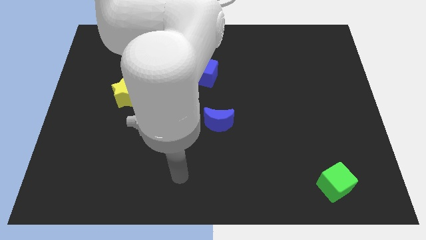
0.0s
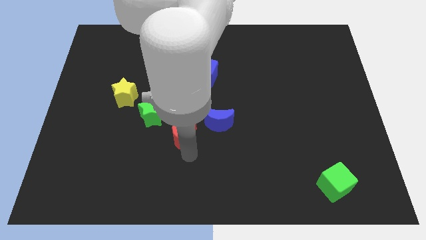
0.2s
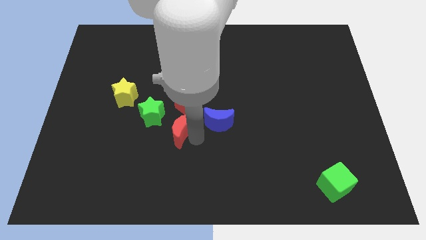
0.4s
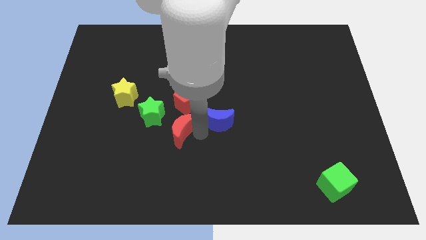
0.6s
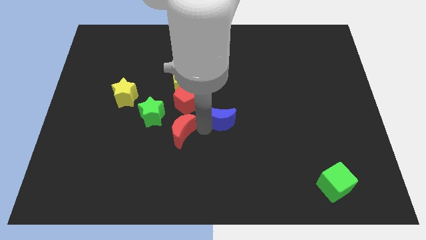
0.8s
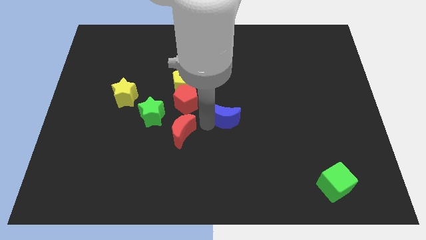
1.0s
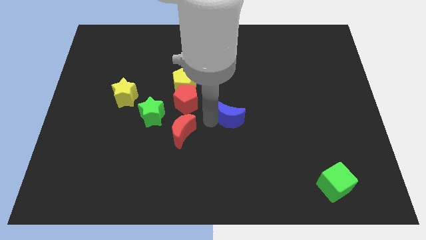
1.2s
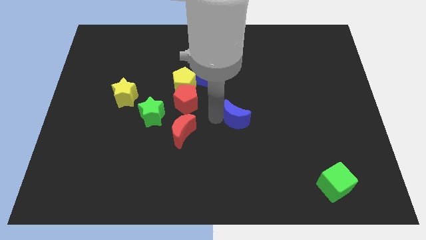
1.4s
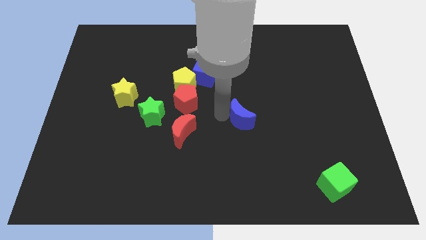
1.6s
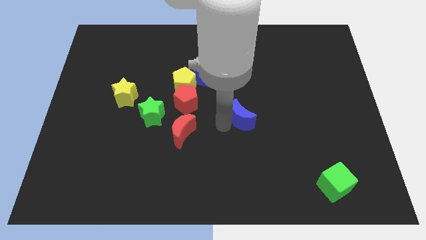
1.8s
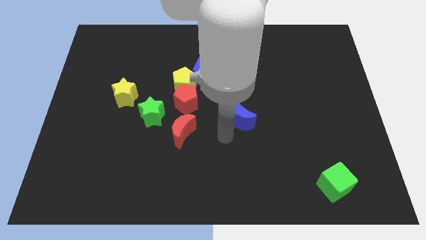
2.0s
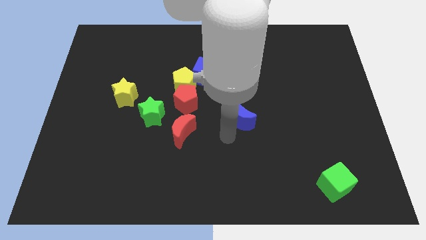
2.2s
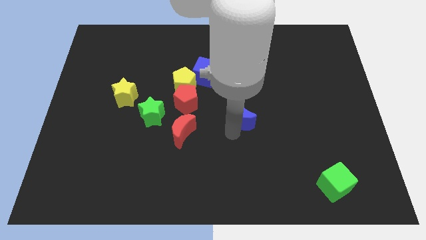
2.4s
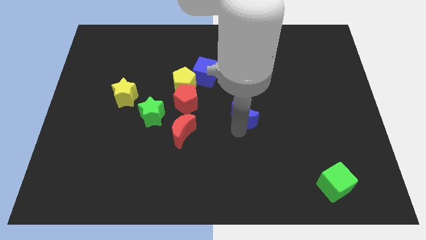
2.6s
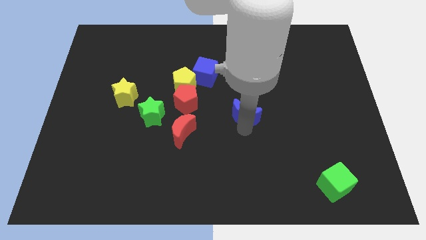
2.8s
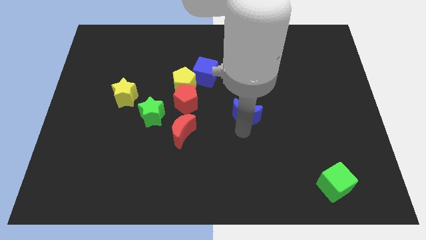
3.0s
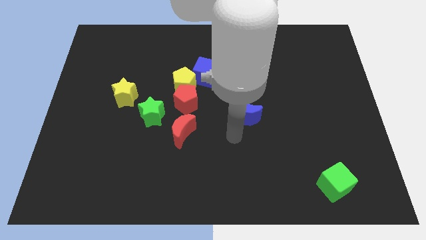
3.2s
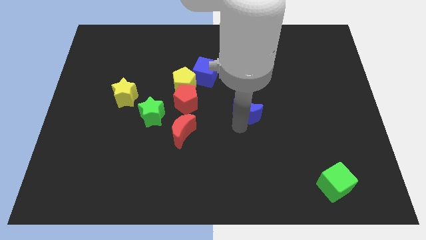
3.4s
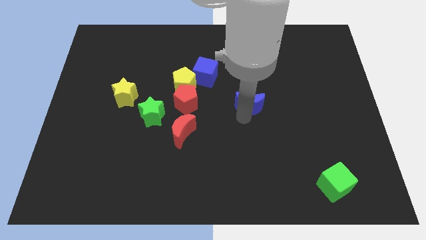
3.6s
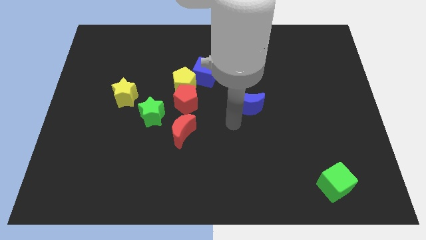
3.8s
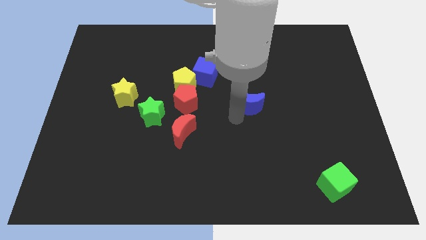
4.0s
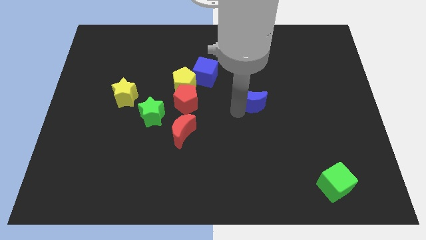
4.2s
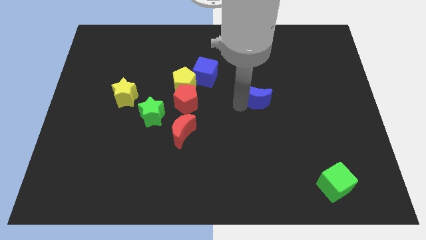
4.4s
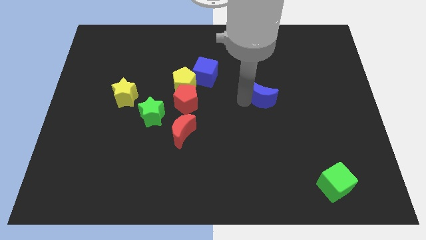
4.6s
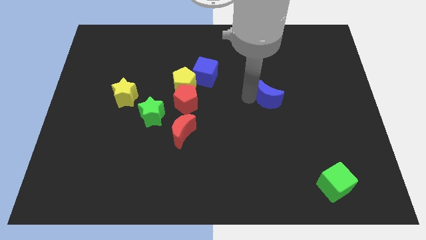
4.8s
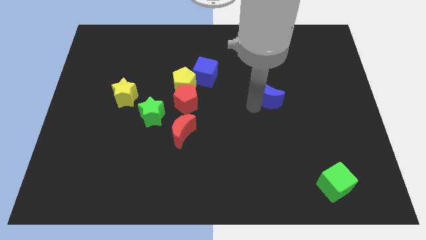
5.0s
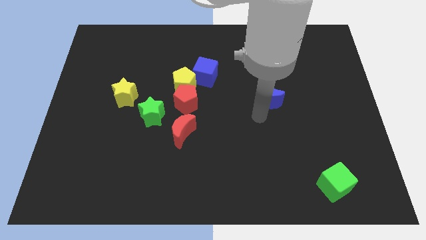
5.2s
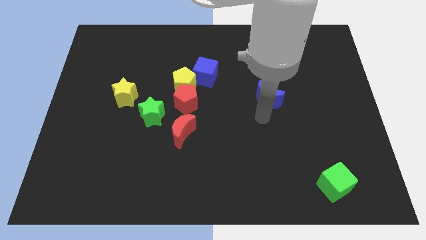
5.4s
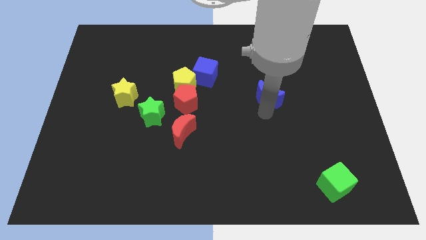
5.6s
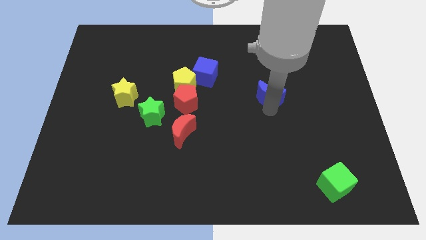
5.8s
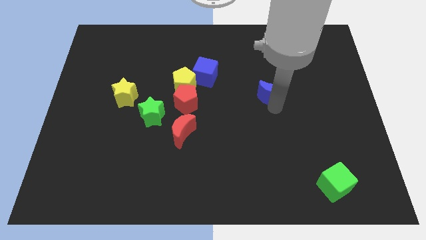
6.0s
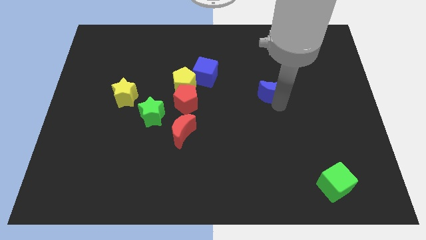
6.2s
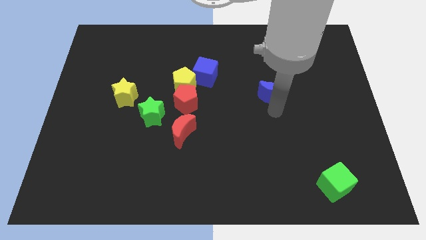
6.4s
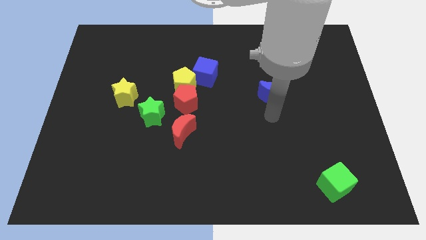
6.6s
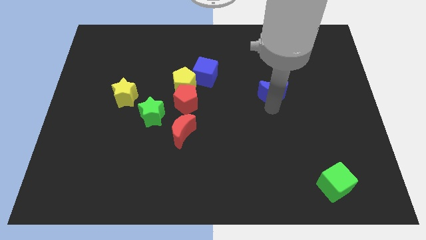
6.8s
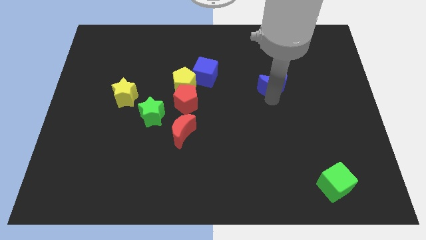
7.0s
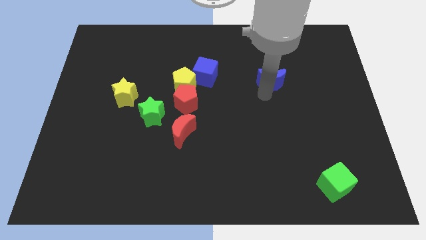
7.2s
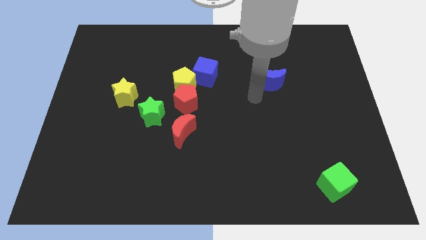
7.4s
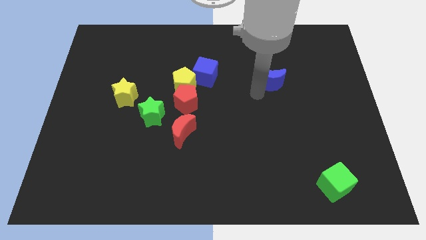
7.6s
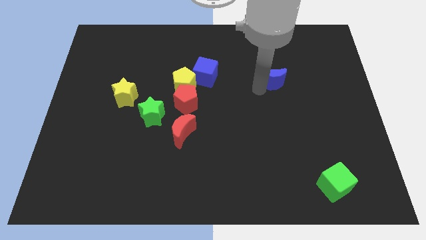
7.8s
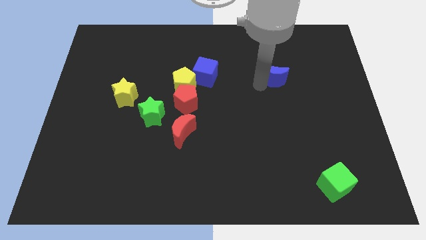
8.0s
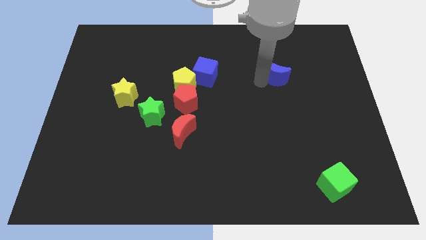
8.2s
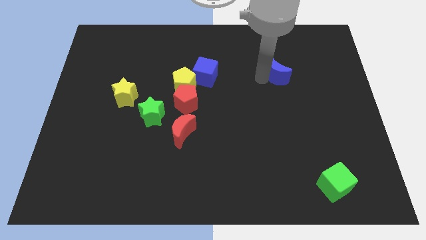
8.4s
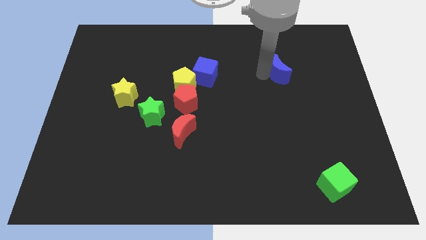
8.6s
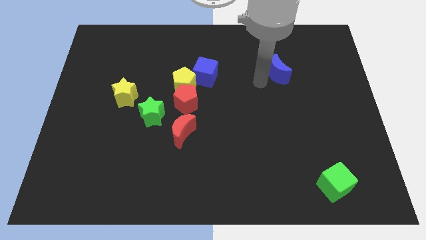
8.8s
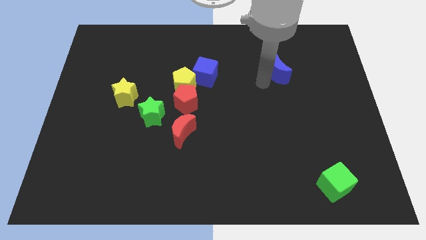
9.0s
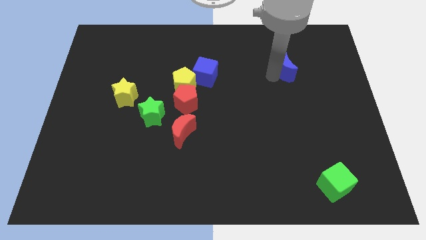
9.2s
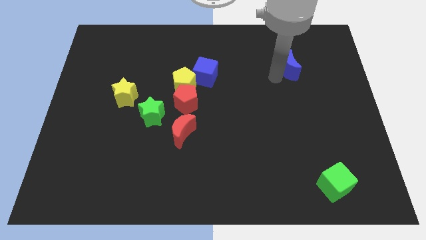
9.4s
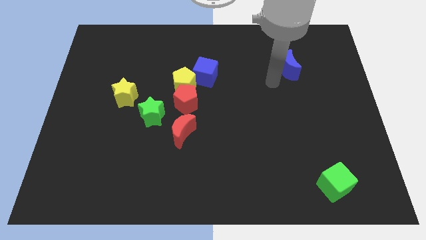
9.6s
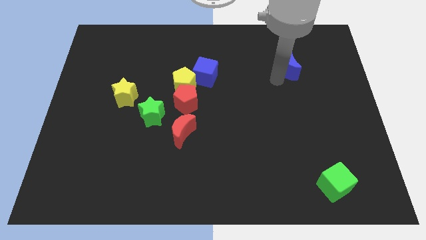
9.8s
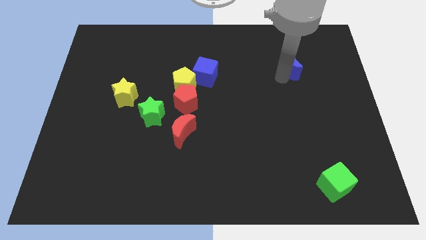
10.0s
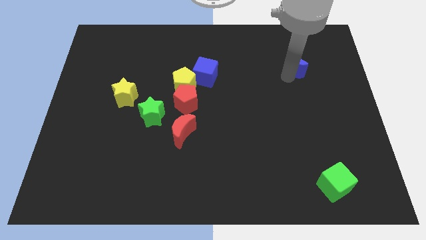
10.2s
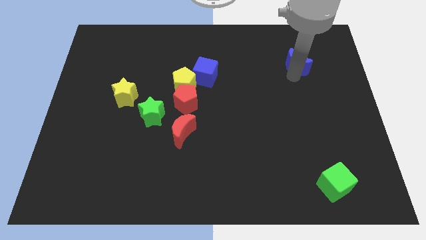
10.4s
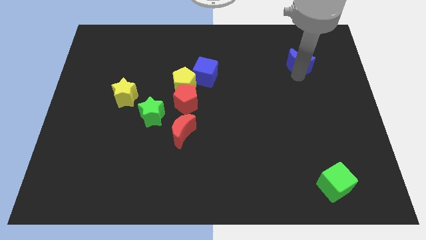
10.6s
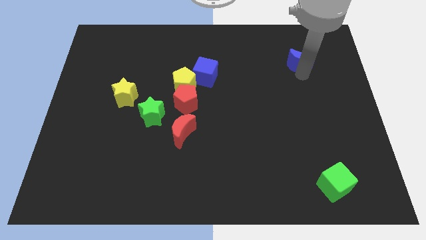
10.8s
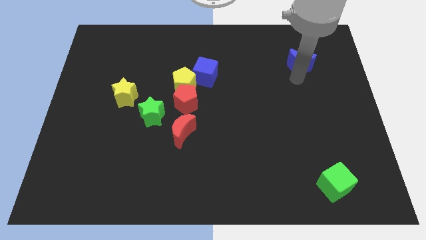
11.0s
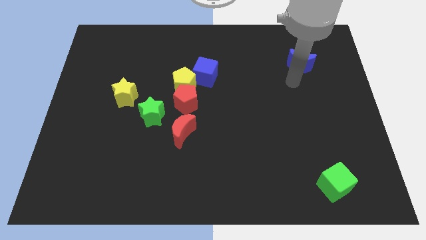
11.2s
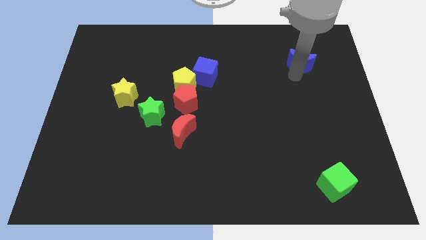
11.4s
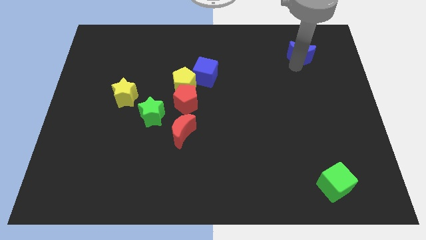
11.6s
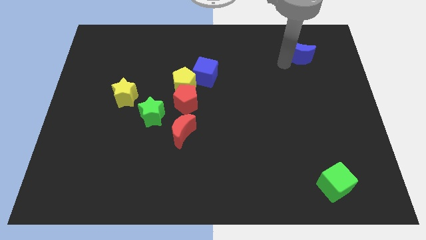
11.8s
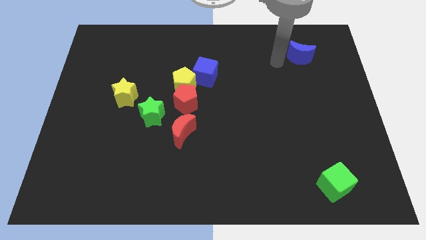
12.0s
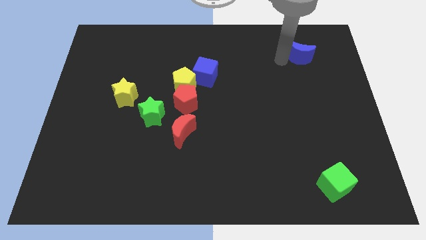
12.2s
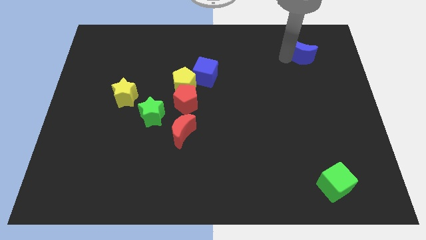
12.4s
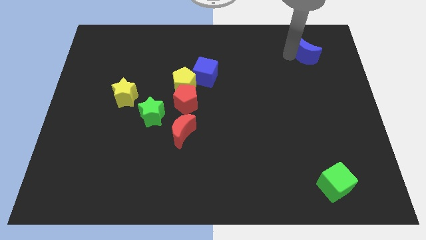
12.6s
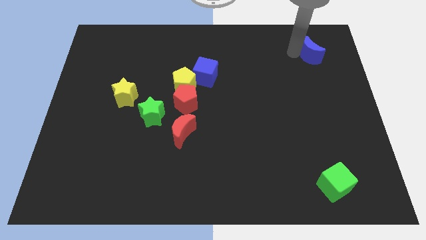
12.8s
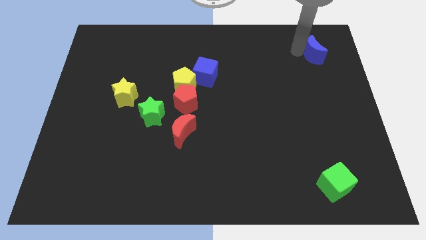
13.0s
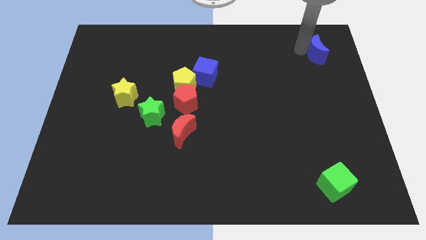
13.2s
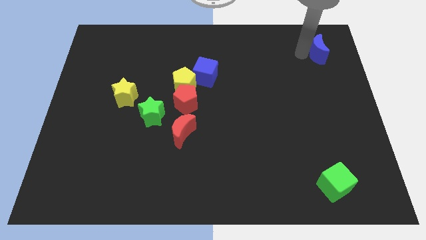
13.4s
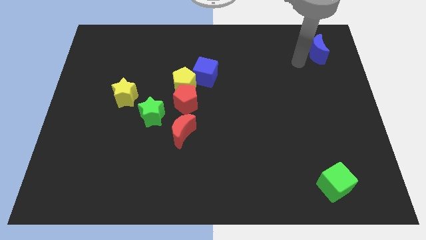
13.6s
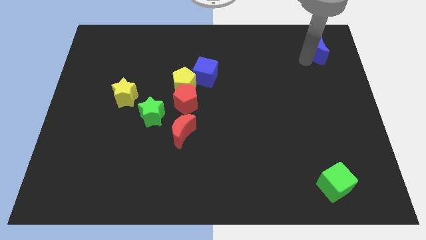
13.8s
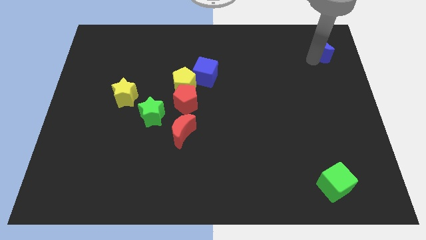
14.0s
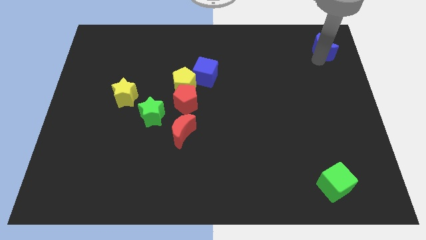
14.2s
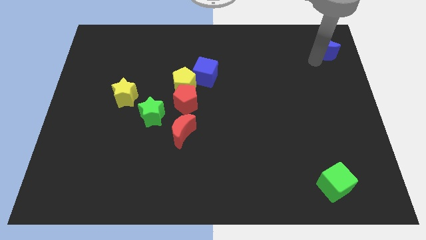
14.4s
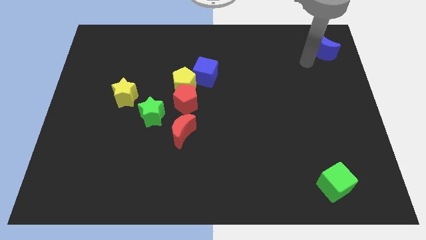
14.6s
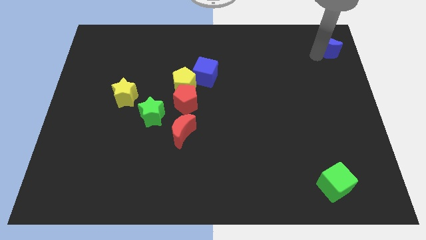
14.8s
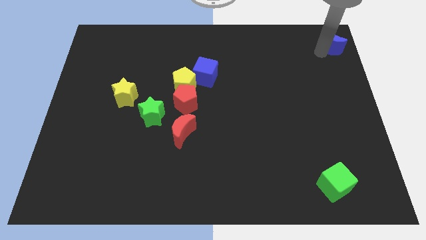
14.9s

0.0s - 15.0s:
push the blue moon to the top right corner
